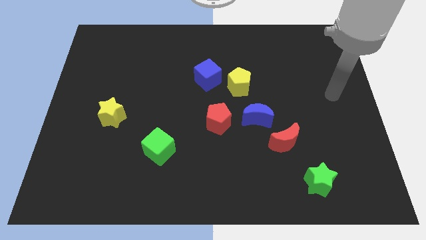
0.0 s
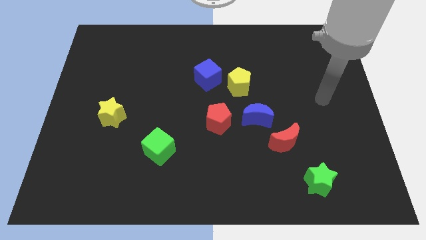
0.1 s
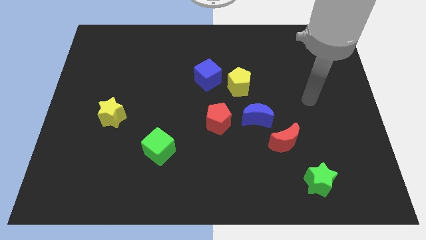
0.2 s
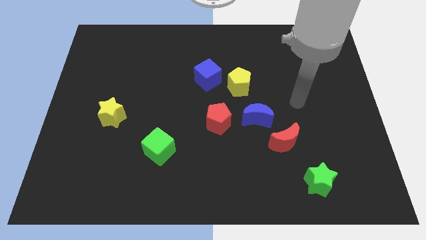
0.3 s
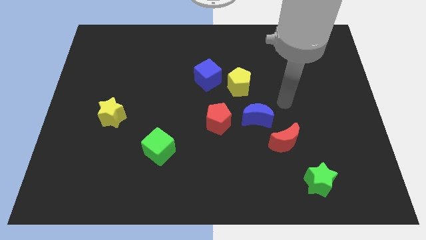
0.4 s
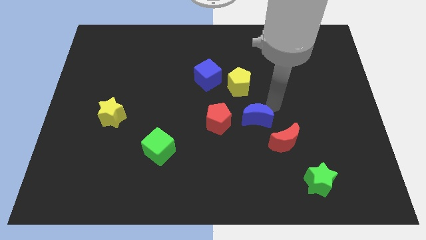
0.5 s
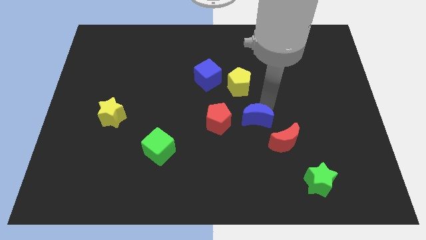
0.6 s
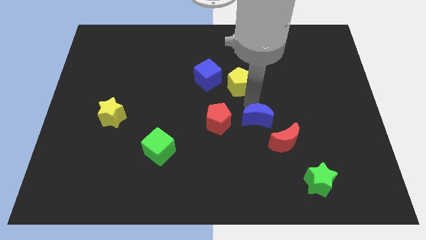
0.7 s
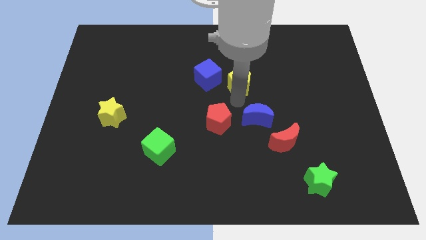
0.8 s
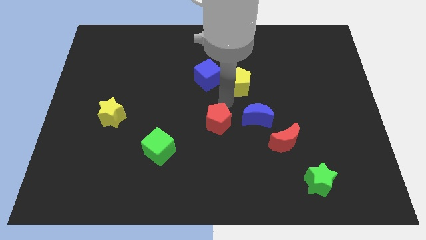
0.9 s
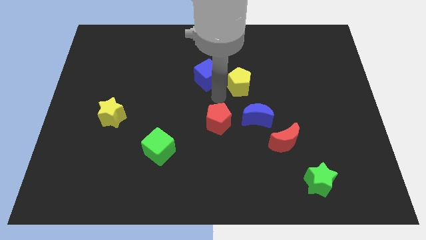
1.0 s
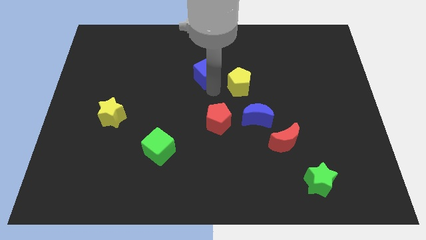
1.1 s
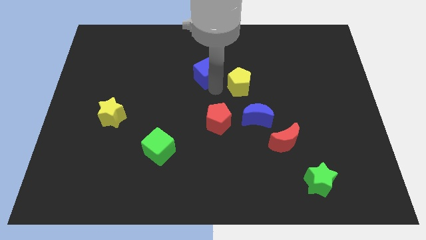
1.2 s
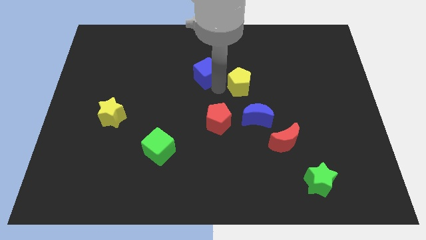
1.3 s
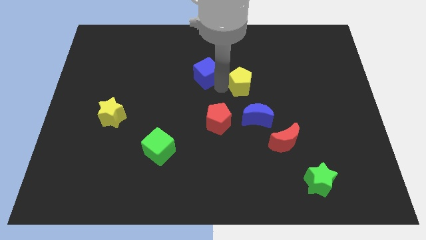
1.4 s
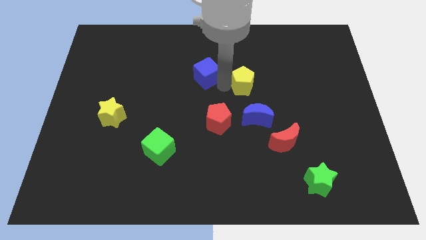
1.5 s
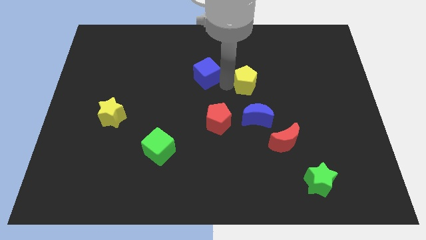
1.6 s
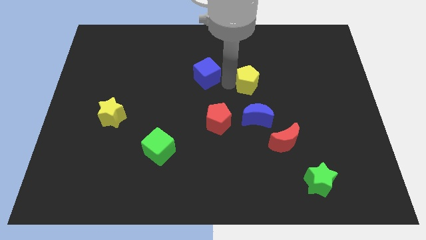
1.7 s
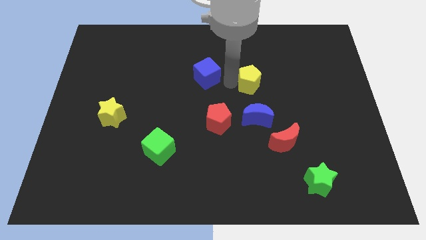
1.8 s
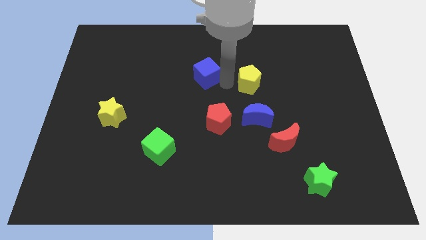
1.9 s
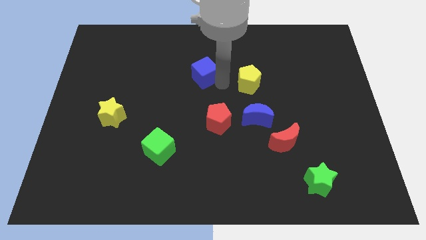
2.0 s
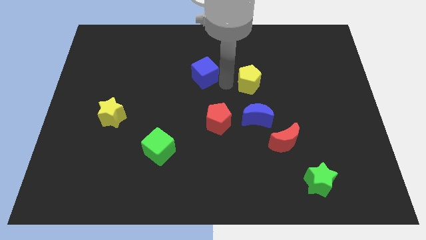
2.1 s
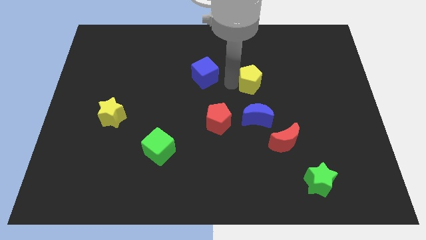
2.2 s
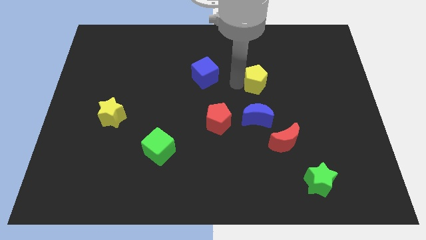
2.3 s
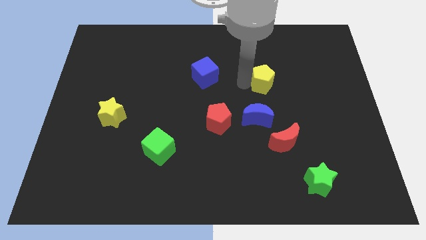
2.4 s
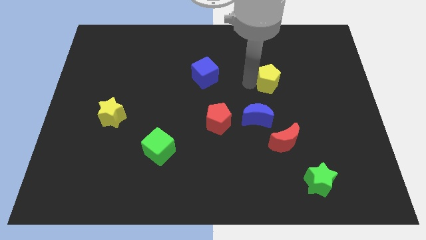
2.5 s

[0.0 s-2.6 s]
slightly move the yellow pentagon right

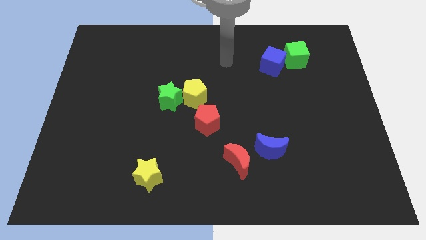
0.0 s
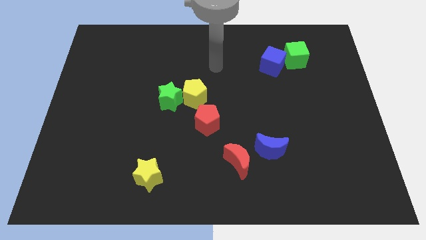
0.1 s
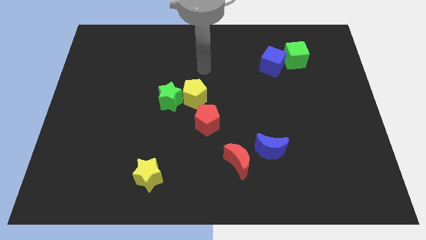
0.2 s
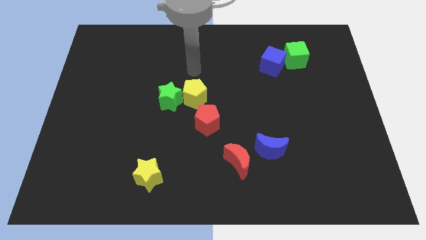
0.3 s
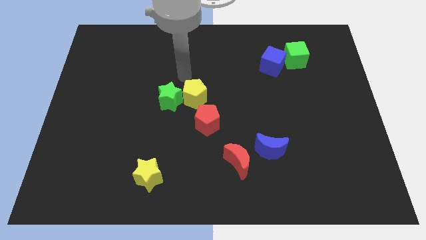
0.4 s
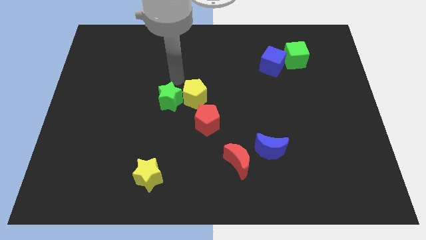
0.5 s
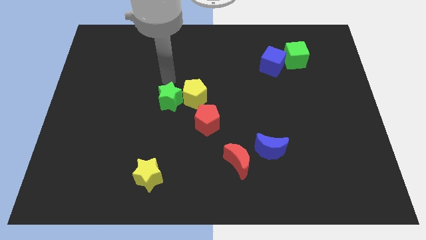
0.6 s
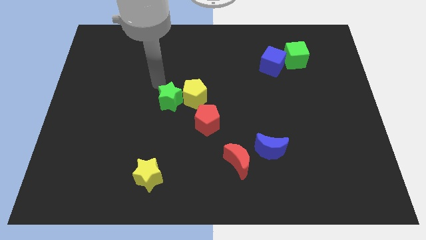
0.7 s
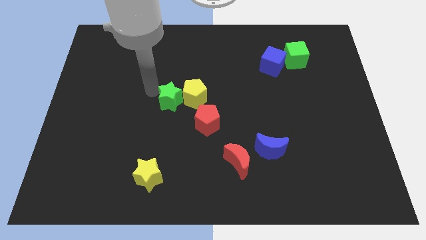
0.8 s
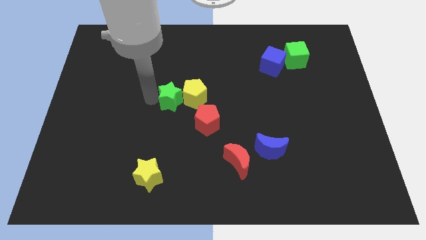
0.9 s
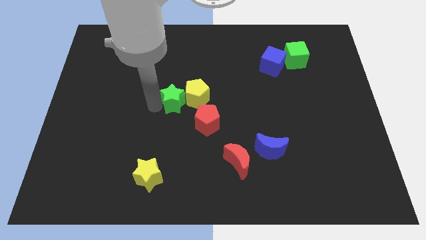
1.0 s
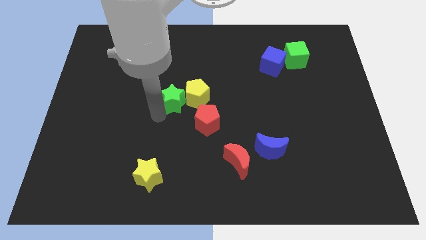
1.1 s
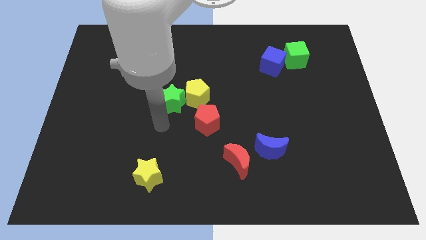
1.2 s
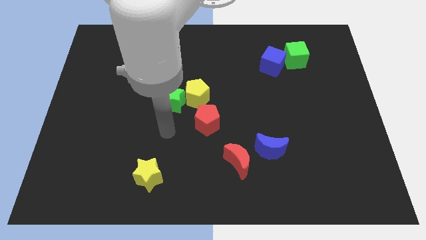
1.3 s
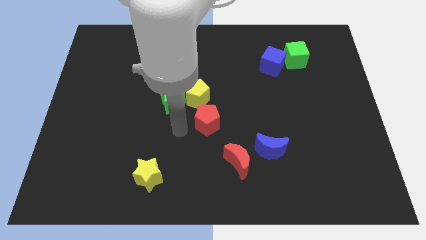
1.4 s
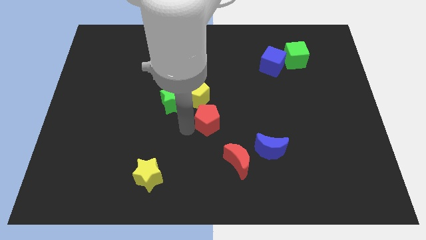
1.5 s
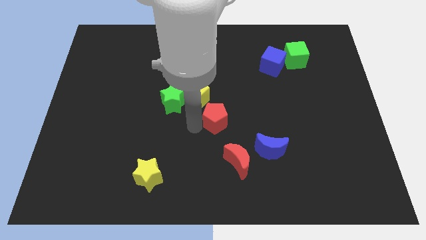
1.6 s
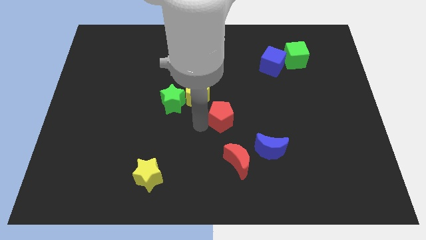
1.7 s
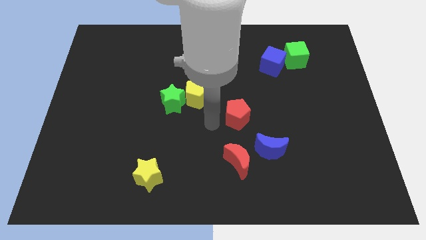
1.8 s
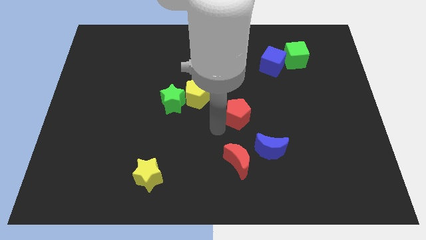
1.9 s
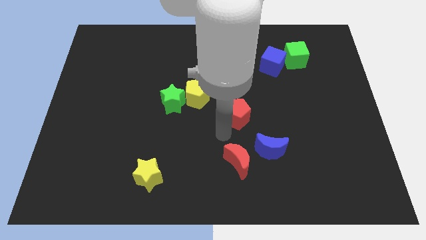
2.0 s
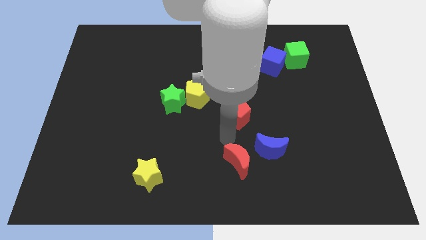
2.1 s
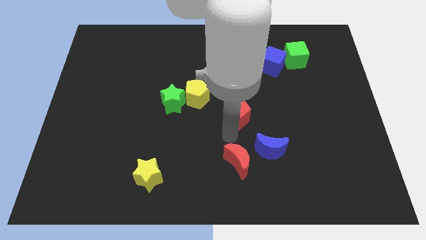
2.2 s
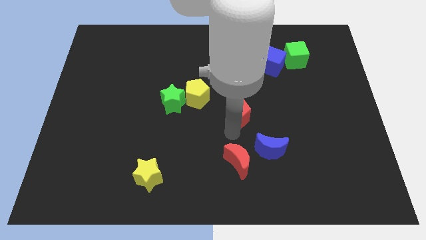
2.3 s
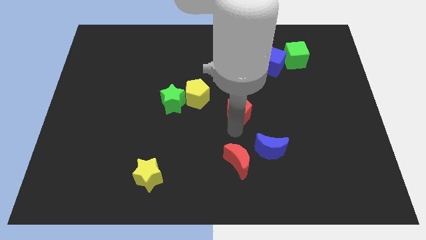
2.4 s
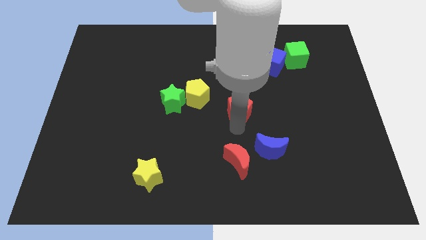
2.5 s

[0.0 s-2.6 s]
move the red pentagon a little upwards and right

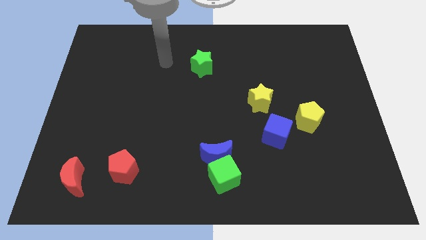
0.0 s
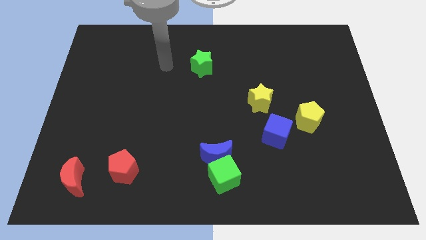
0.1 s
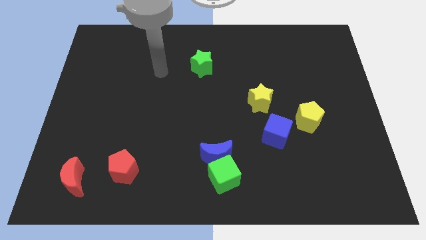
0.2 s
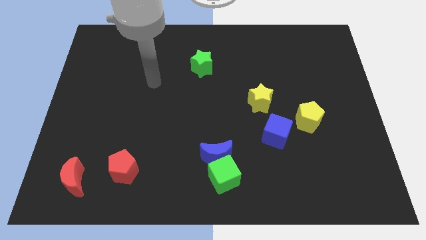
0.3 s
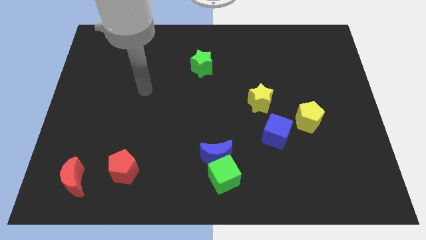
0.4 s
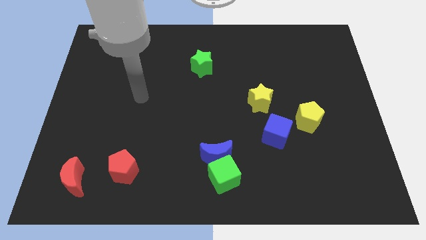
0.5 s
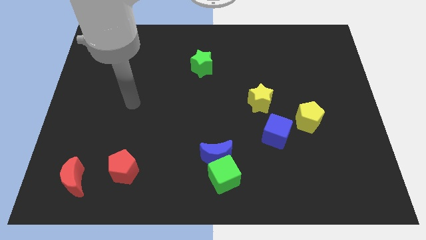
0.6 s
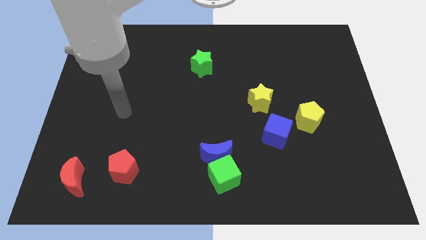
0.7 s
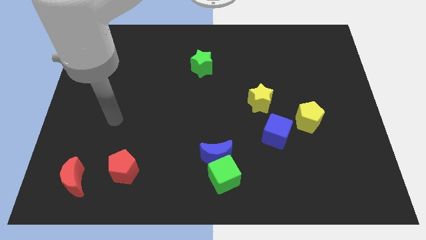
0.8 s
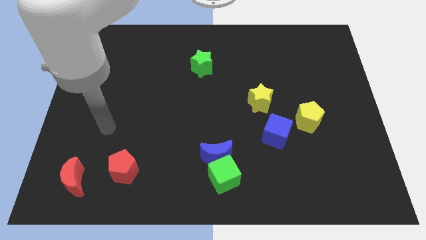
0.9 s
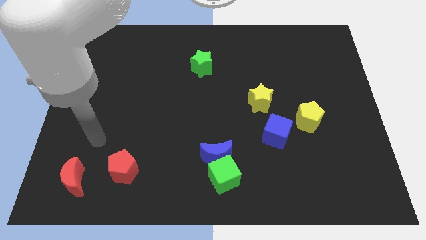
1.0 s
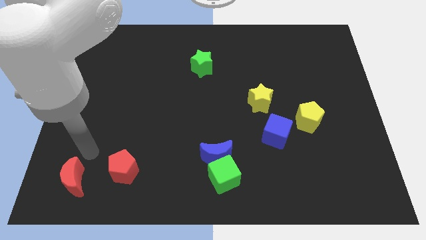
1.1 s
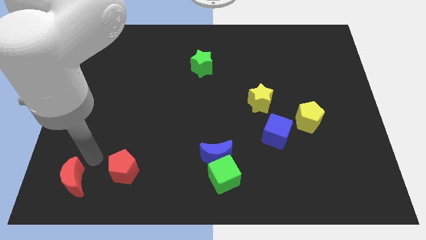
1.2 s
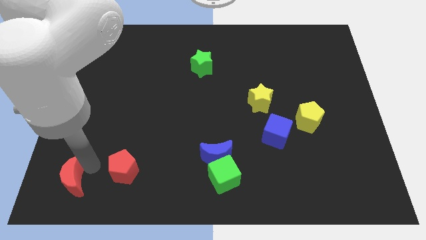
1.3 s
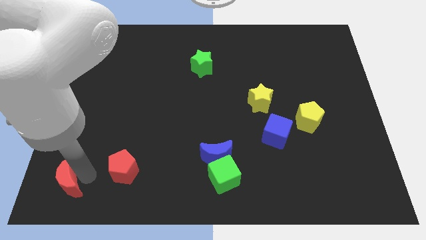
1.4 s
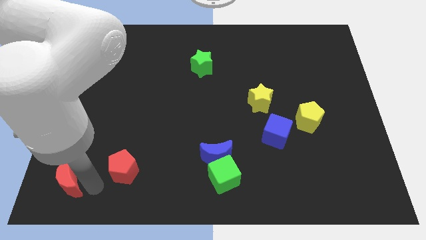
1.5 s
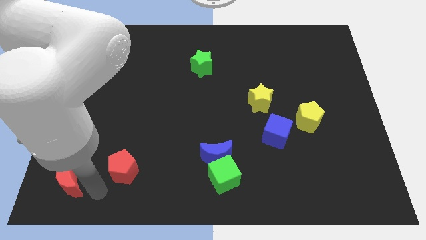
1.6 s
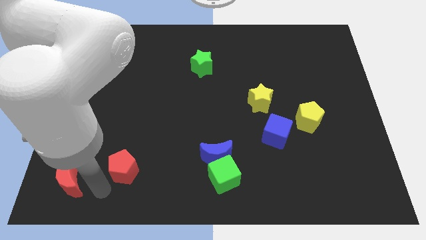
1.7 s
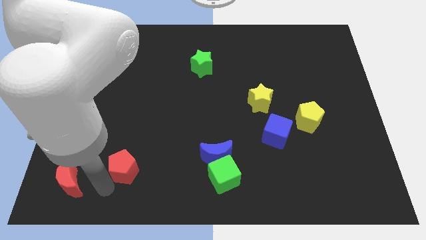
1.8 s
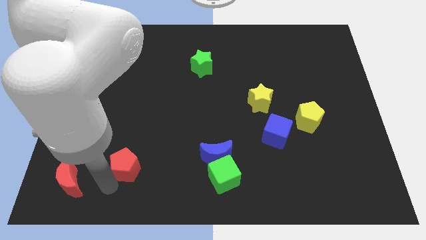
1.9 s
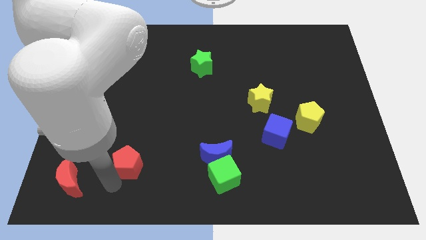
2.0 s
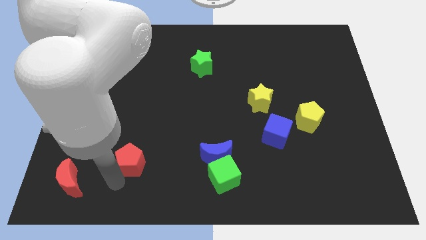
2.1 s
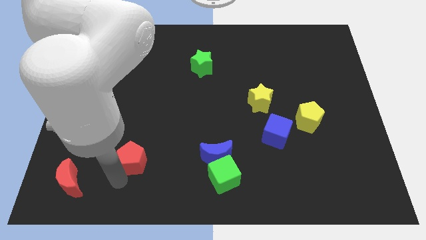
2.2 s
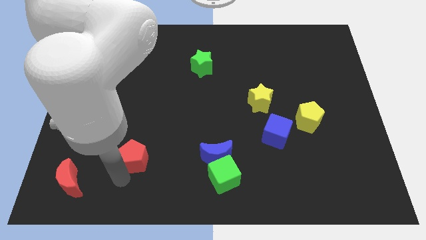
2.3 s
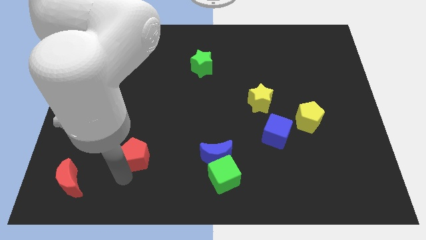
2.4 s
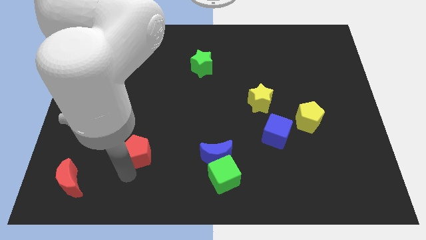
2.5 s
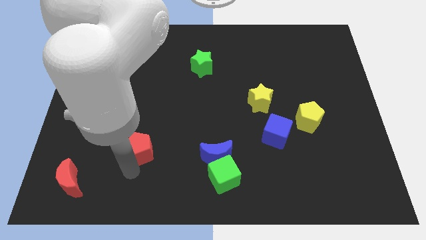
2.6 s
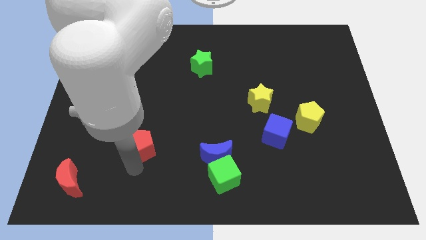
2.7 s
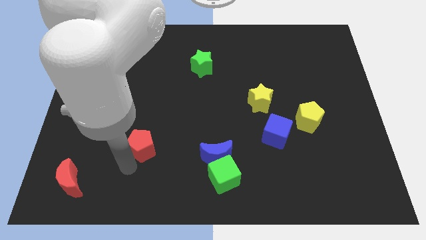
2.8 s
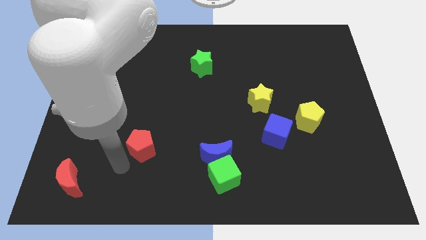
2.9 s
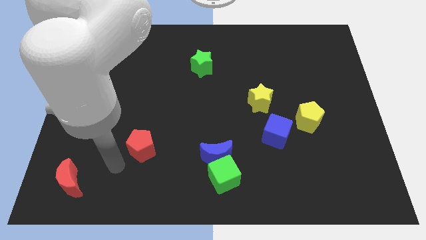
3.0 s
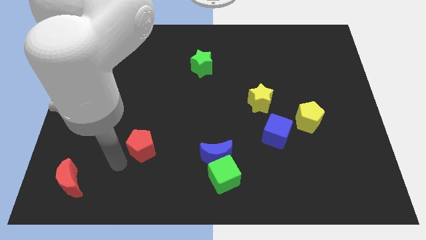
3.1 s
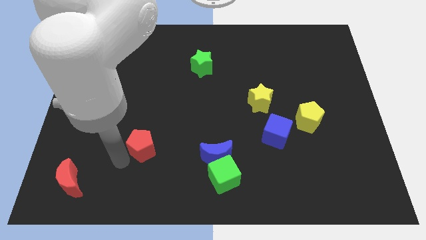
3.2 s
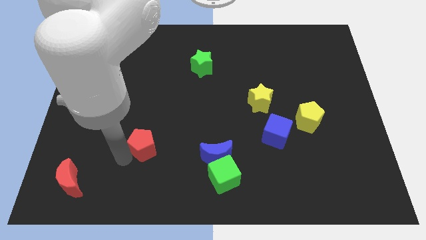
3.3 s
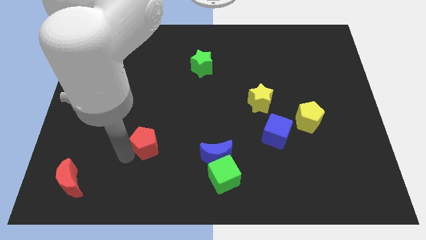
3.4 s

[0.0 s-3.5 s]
push the red pentagon up and right somewhat
